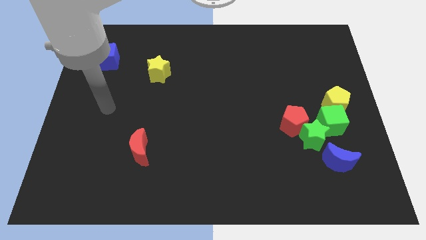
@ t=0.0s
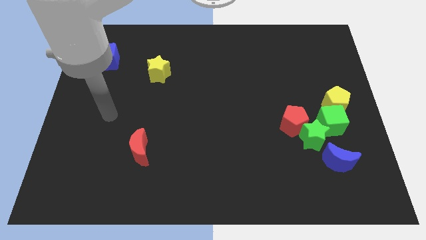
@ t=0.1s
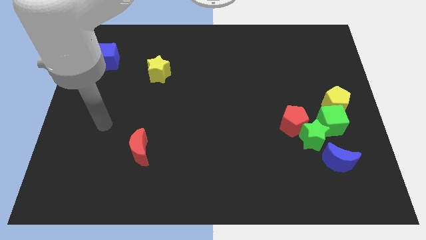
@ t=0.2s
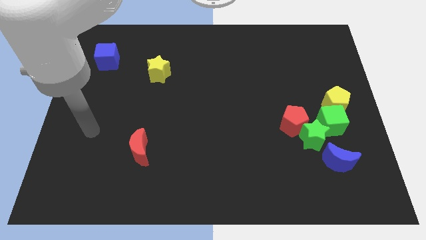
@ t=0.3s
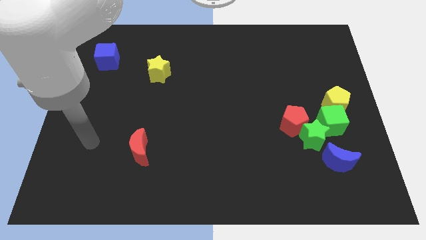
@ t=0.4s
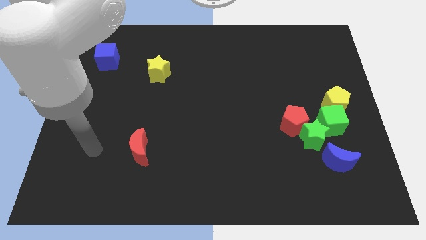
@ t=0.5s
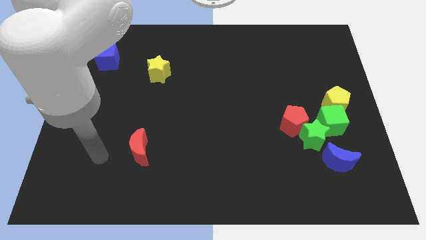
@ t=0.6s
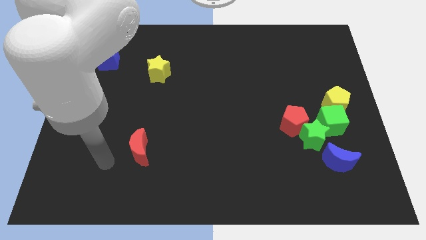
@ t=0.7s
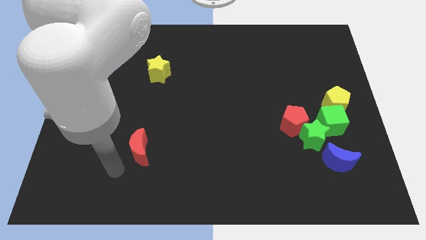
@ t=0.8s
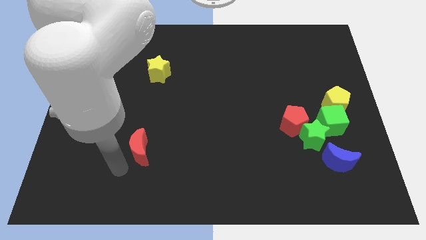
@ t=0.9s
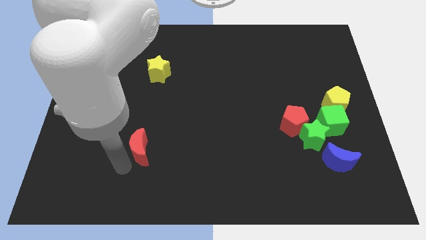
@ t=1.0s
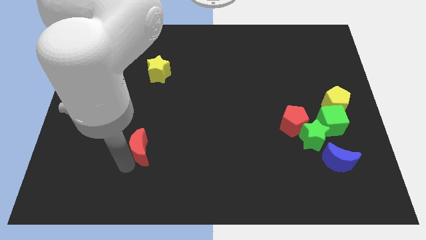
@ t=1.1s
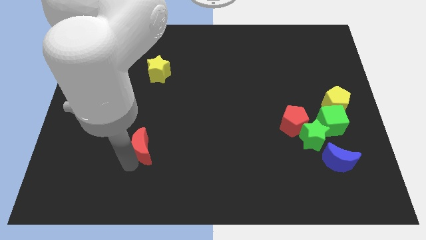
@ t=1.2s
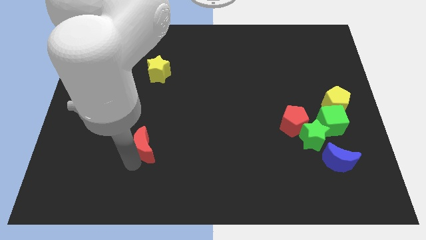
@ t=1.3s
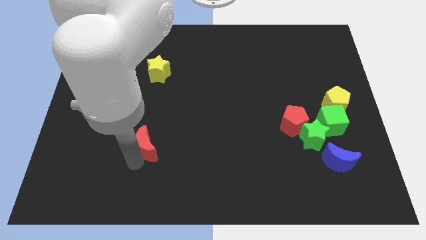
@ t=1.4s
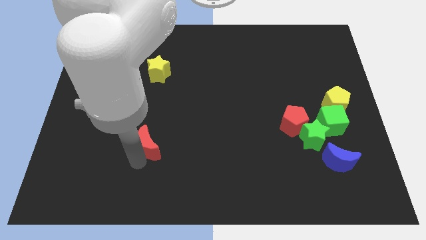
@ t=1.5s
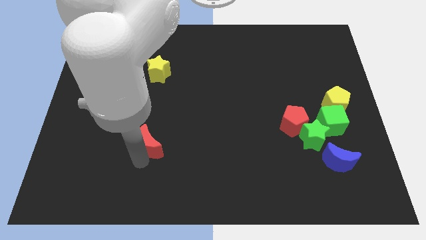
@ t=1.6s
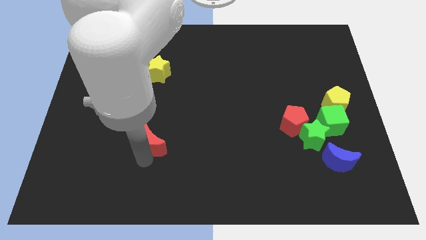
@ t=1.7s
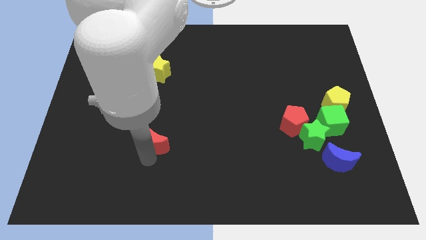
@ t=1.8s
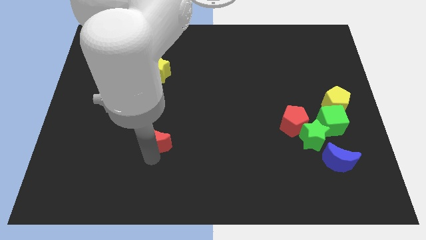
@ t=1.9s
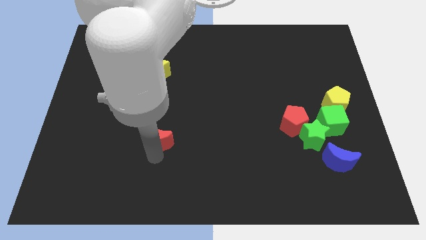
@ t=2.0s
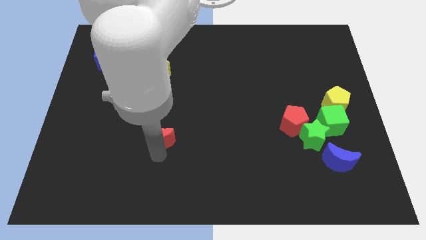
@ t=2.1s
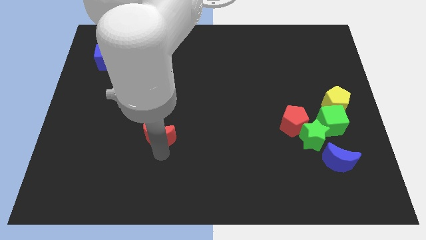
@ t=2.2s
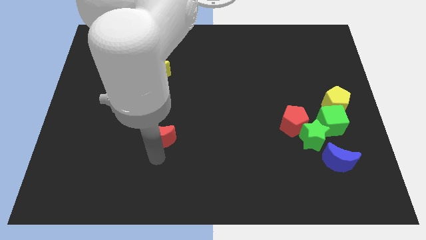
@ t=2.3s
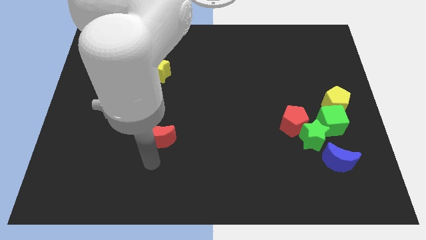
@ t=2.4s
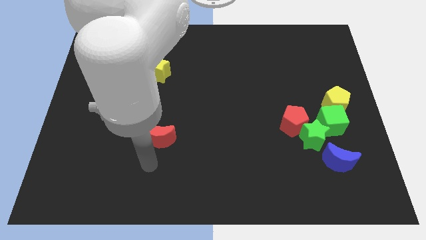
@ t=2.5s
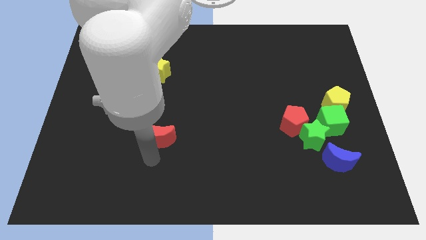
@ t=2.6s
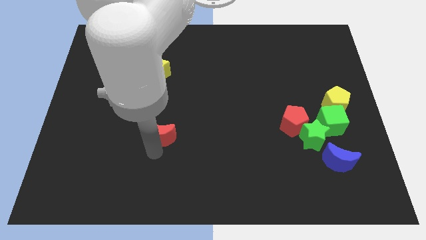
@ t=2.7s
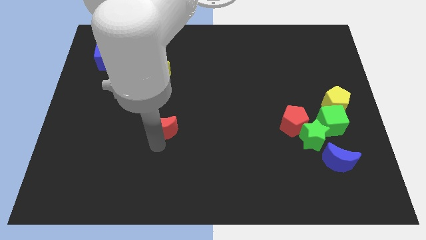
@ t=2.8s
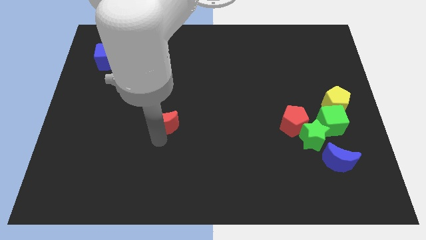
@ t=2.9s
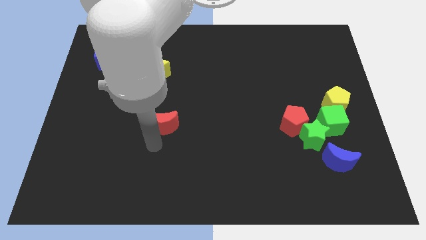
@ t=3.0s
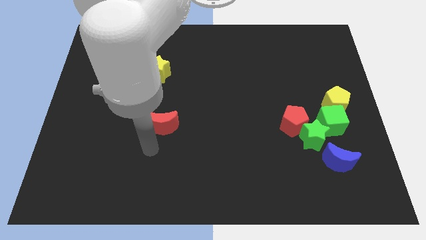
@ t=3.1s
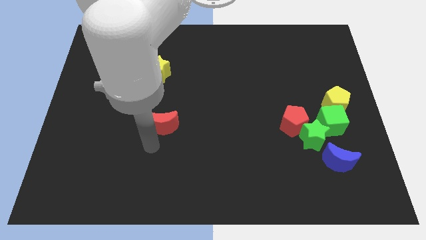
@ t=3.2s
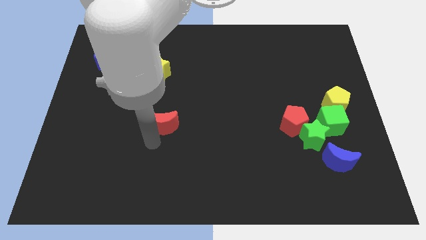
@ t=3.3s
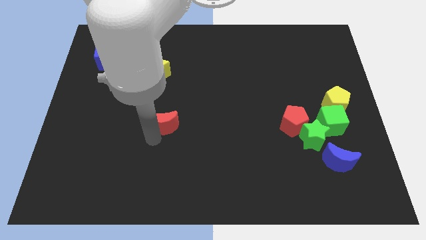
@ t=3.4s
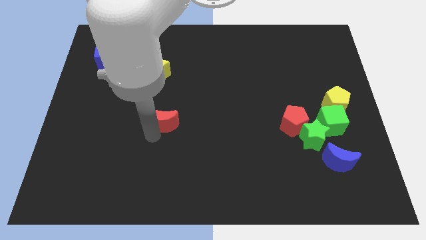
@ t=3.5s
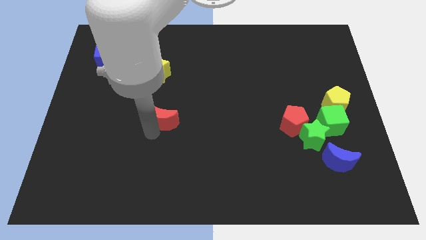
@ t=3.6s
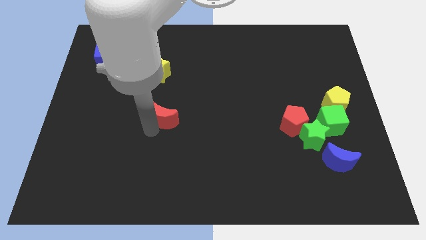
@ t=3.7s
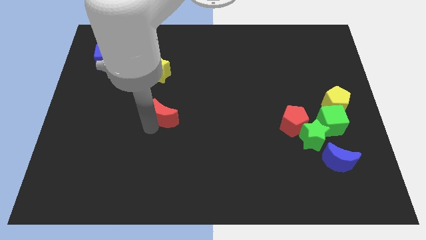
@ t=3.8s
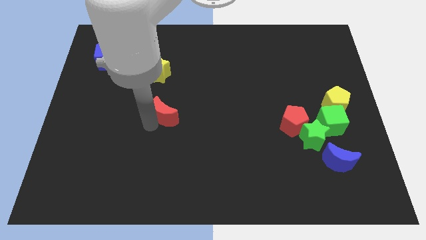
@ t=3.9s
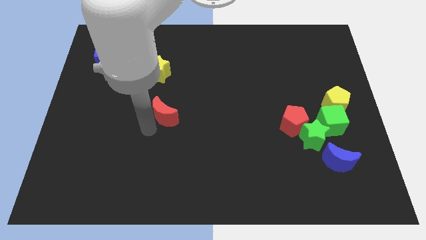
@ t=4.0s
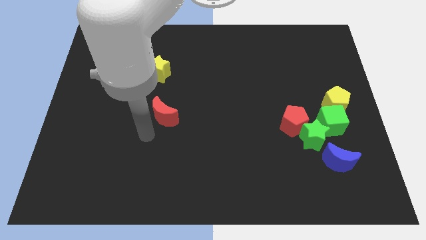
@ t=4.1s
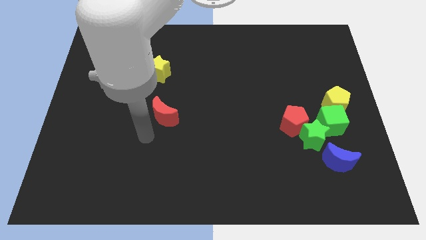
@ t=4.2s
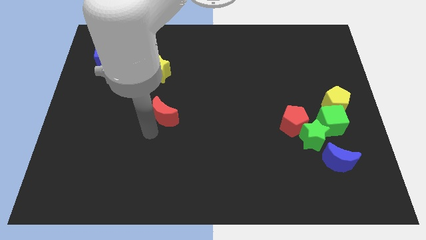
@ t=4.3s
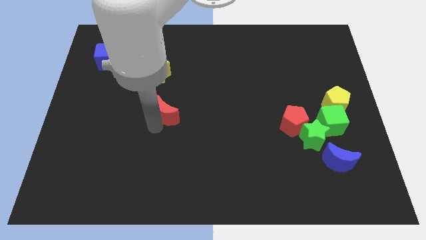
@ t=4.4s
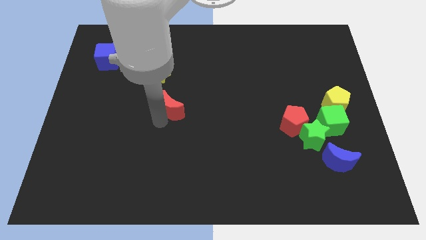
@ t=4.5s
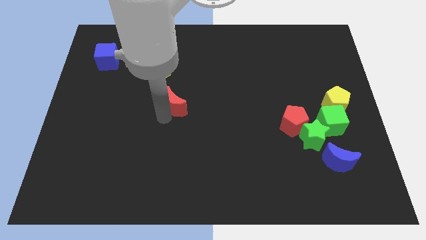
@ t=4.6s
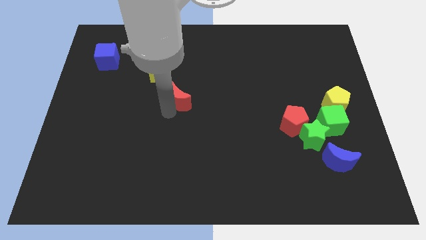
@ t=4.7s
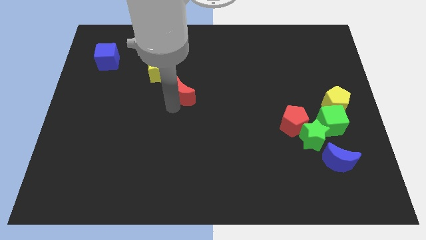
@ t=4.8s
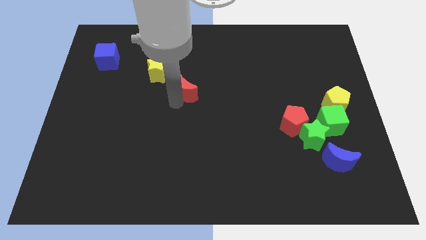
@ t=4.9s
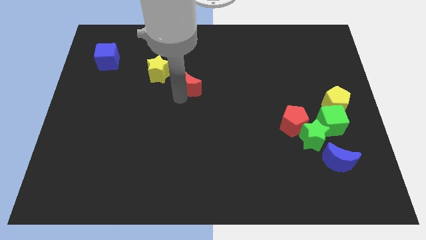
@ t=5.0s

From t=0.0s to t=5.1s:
push the red moon to the right side of the yellow star

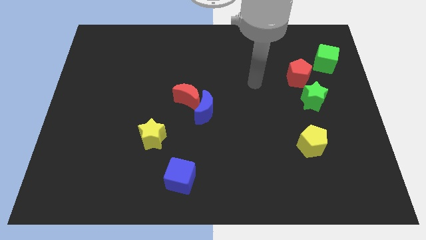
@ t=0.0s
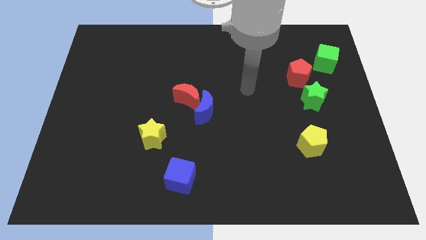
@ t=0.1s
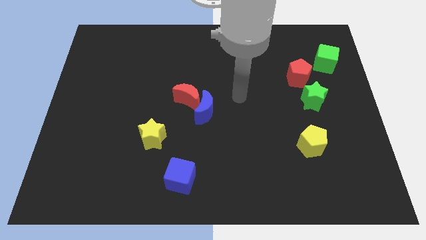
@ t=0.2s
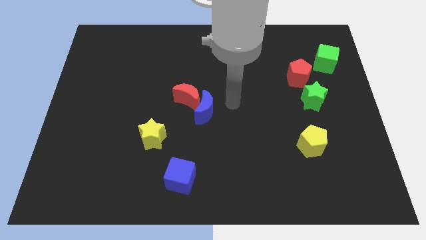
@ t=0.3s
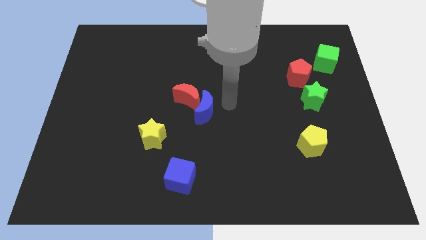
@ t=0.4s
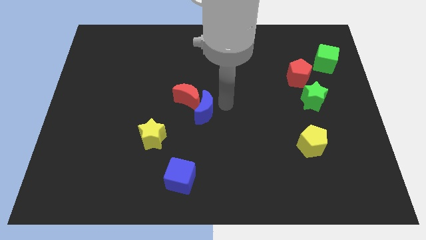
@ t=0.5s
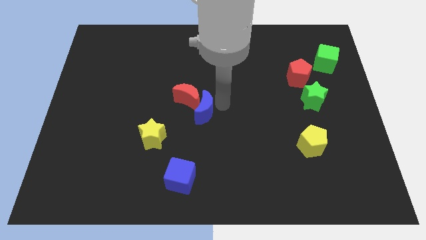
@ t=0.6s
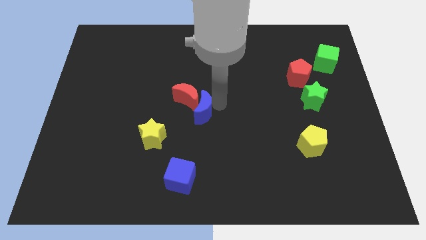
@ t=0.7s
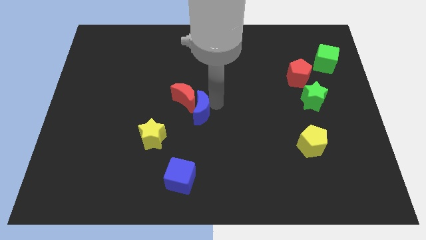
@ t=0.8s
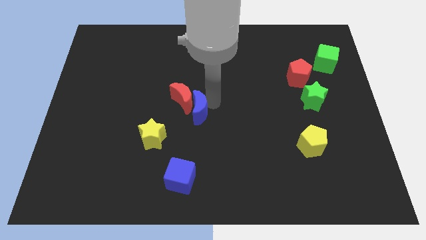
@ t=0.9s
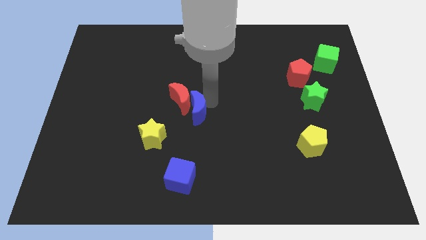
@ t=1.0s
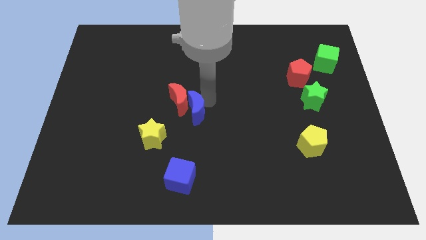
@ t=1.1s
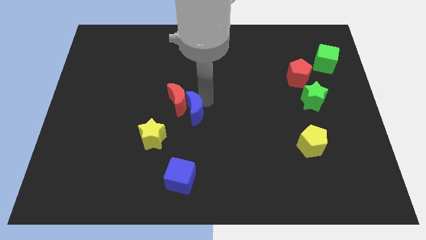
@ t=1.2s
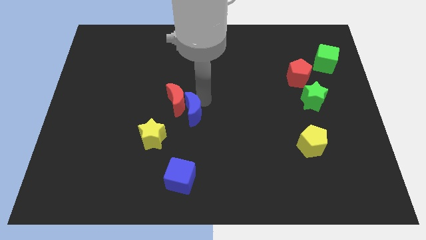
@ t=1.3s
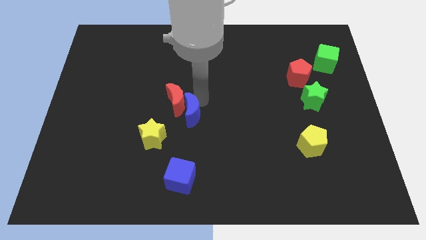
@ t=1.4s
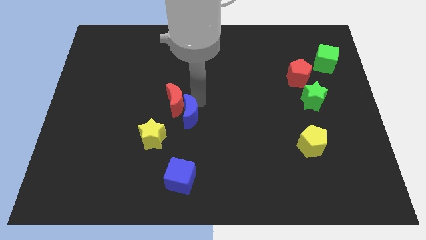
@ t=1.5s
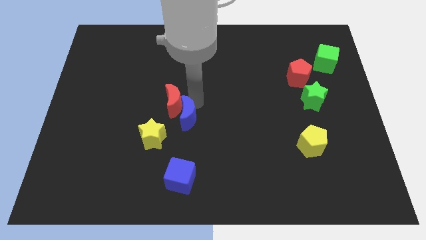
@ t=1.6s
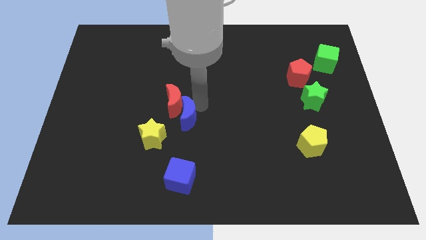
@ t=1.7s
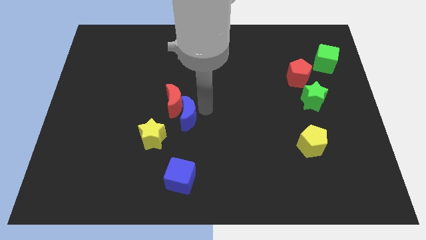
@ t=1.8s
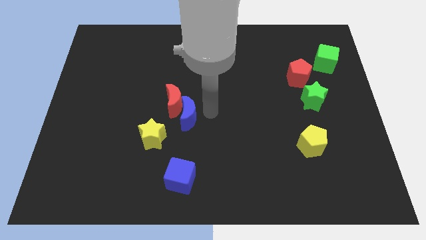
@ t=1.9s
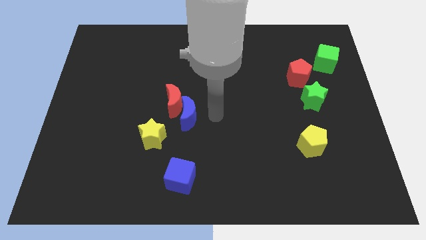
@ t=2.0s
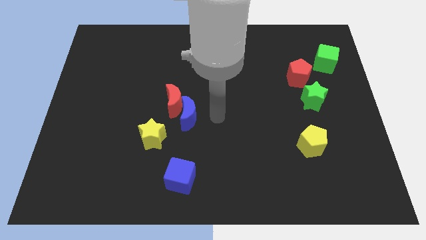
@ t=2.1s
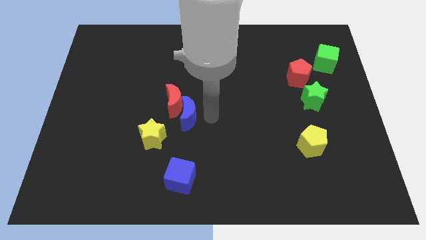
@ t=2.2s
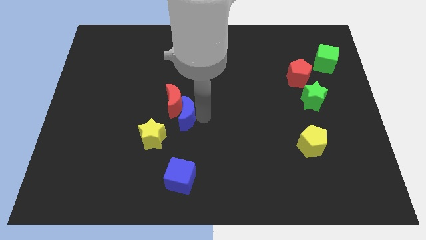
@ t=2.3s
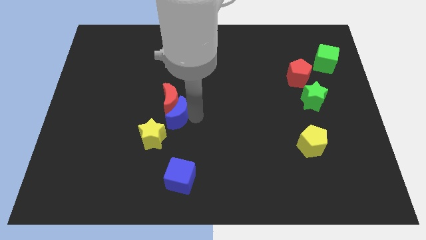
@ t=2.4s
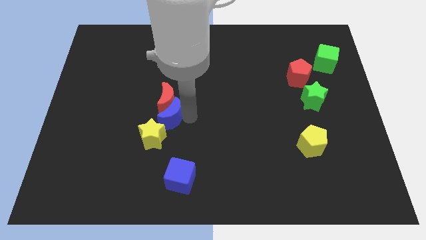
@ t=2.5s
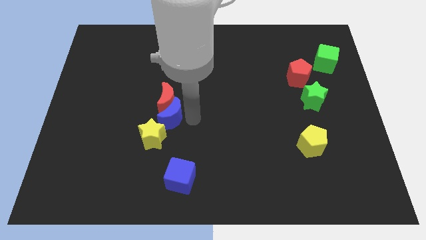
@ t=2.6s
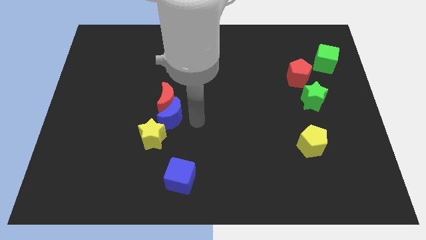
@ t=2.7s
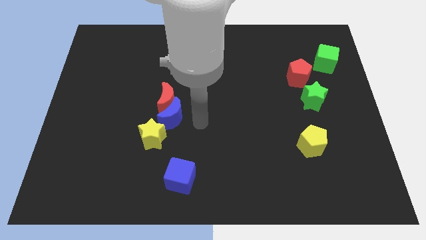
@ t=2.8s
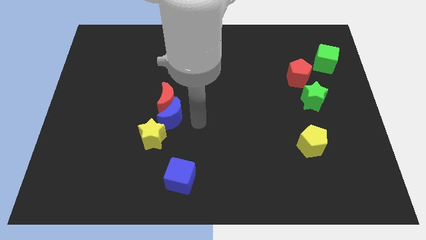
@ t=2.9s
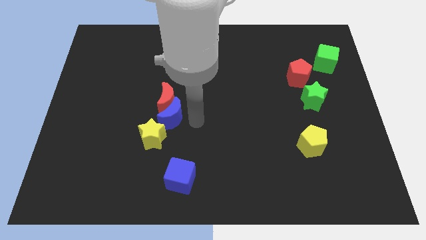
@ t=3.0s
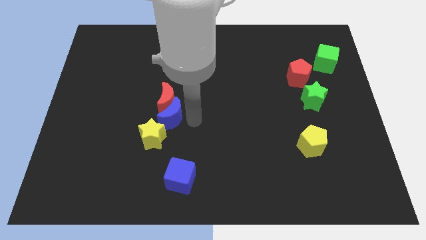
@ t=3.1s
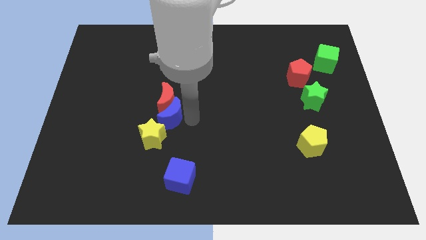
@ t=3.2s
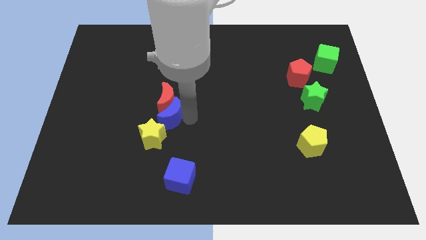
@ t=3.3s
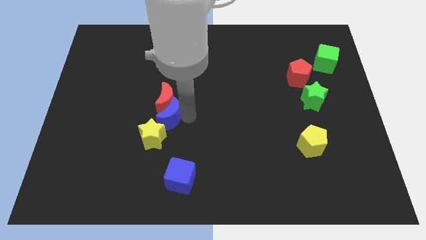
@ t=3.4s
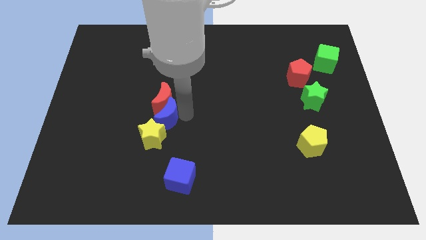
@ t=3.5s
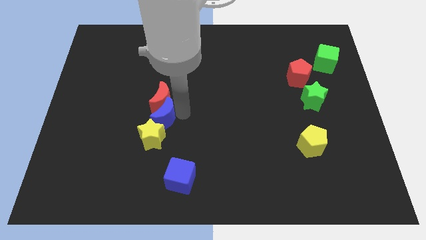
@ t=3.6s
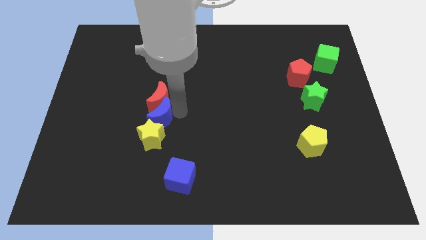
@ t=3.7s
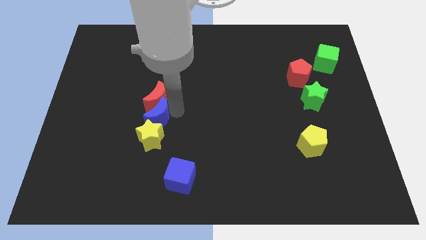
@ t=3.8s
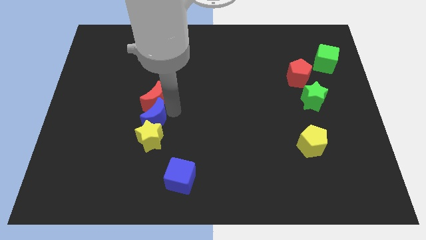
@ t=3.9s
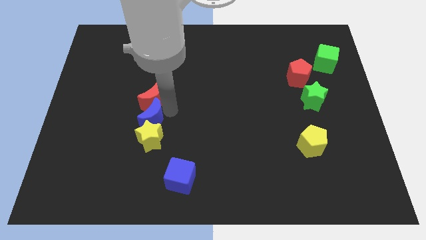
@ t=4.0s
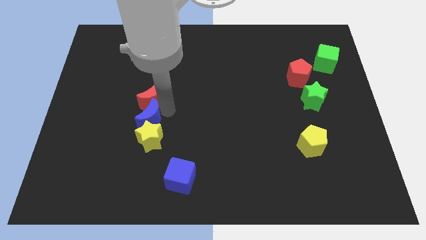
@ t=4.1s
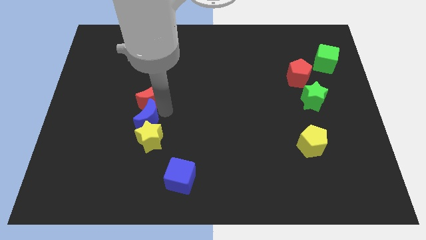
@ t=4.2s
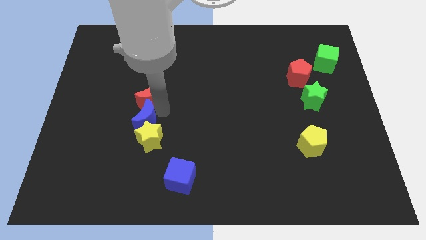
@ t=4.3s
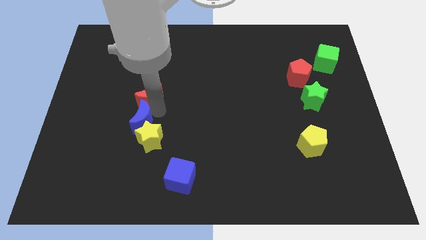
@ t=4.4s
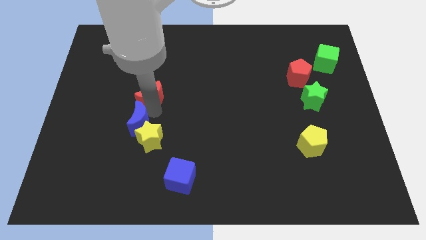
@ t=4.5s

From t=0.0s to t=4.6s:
push the blue moon to the left side of the yellow star
